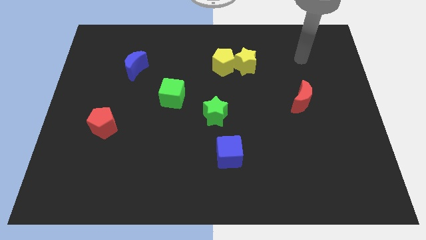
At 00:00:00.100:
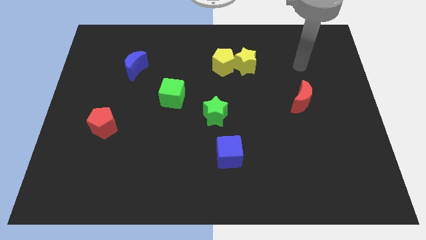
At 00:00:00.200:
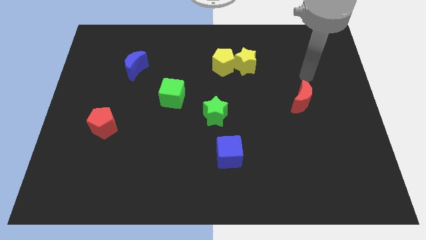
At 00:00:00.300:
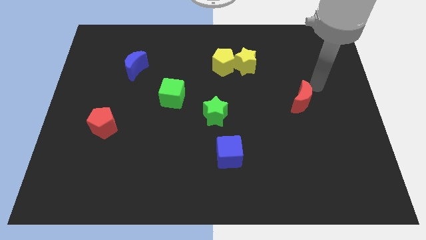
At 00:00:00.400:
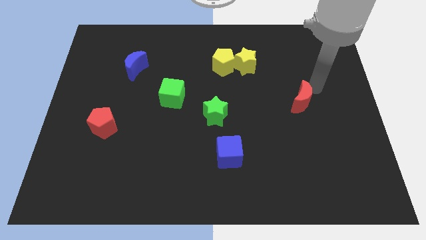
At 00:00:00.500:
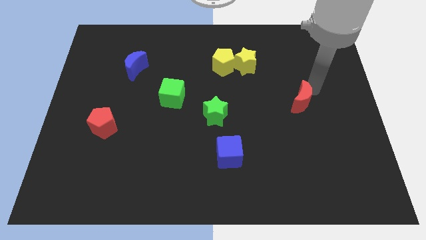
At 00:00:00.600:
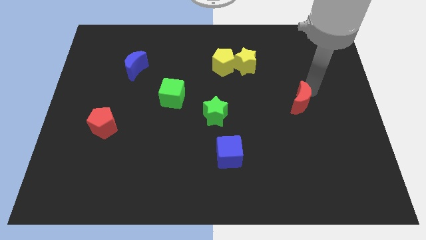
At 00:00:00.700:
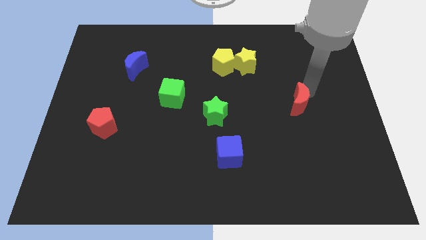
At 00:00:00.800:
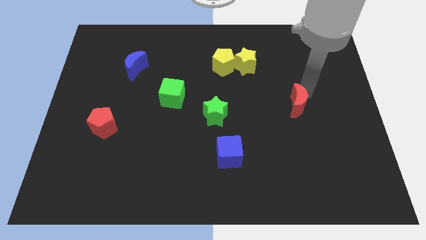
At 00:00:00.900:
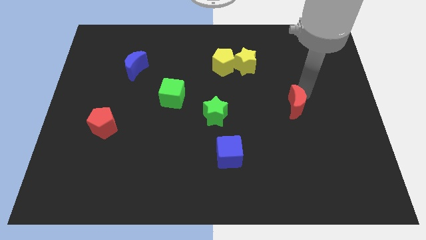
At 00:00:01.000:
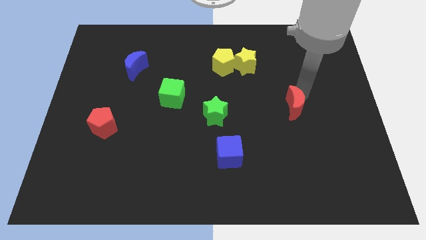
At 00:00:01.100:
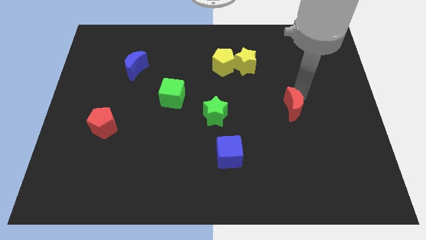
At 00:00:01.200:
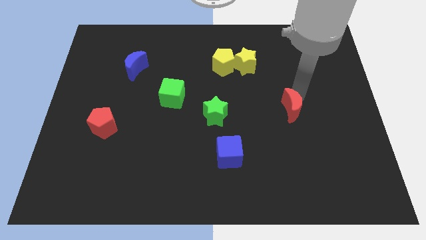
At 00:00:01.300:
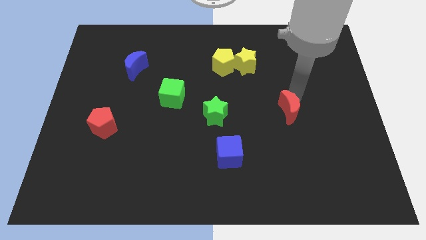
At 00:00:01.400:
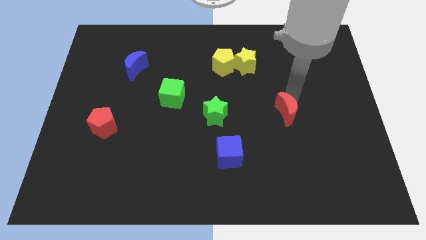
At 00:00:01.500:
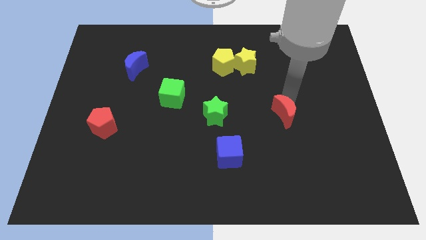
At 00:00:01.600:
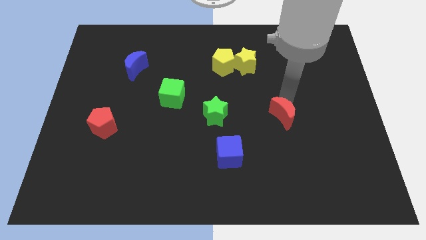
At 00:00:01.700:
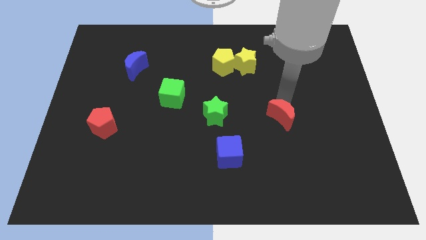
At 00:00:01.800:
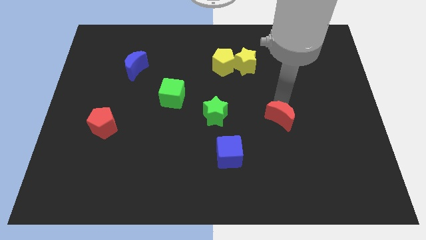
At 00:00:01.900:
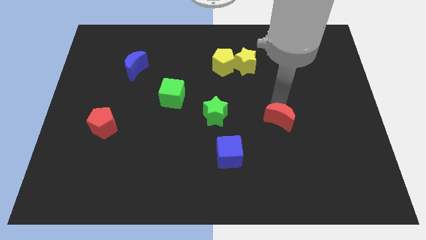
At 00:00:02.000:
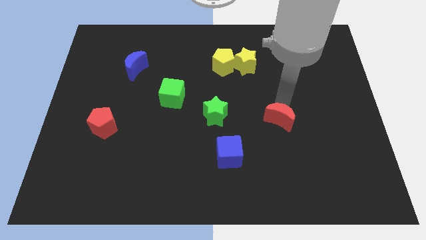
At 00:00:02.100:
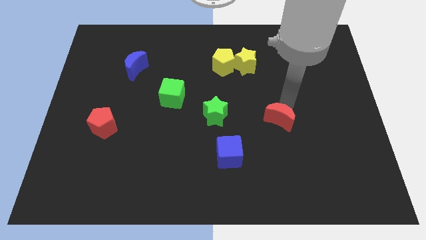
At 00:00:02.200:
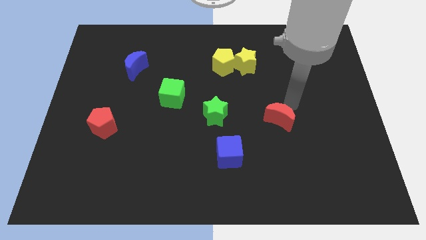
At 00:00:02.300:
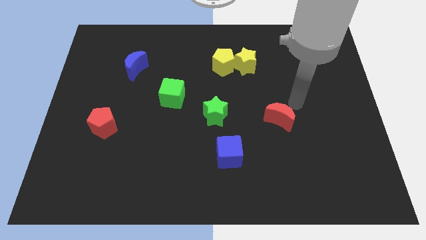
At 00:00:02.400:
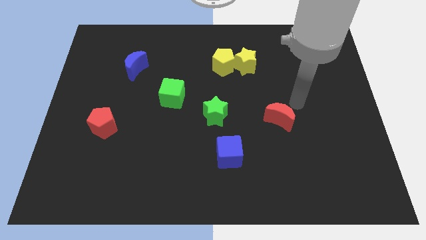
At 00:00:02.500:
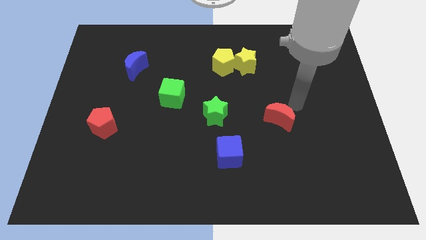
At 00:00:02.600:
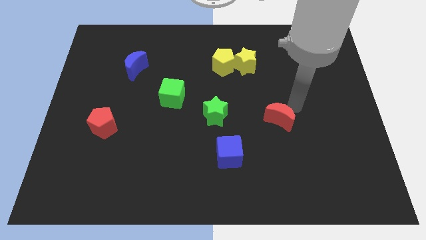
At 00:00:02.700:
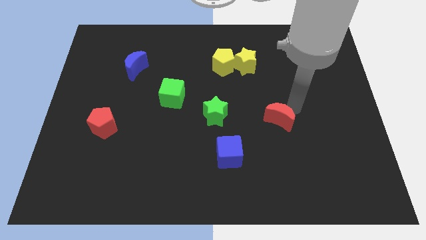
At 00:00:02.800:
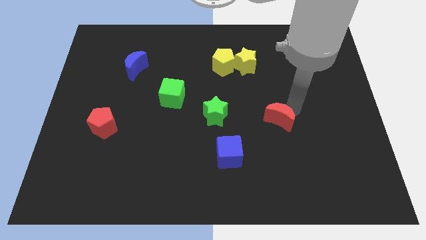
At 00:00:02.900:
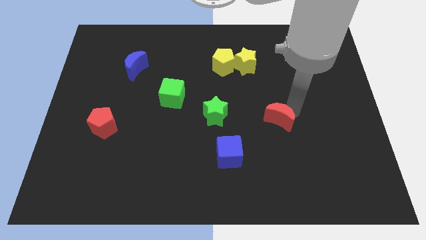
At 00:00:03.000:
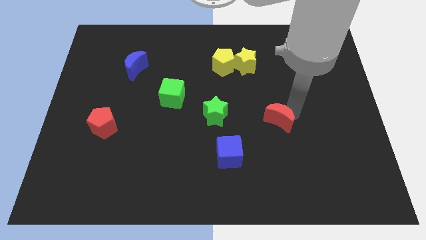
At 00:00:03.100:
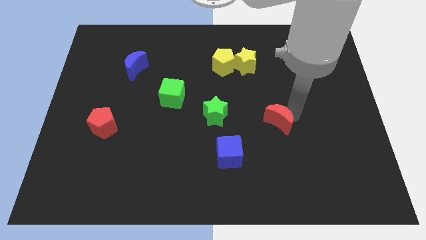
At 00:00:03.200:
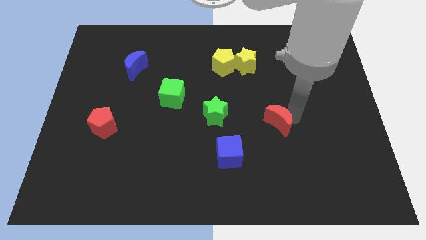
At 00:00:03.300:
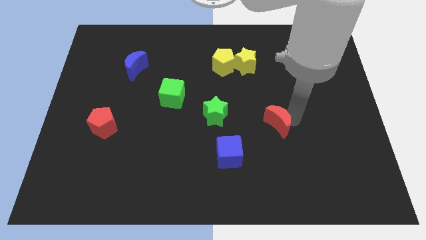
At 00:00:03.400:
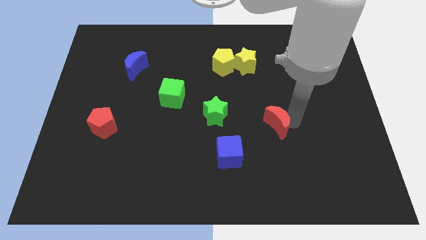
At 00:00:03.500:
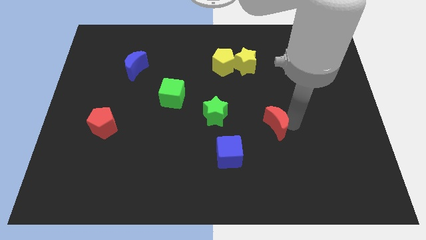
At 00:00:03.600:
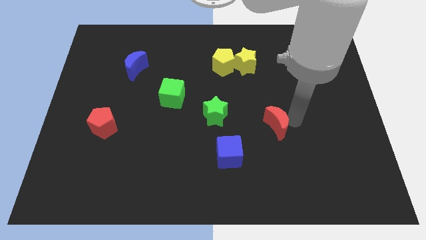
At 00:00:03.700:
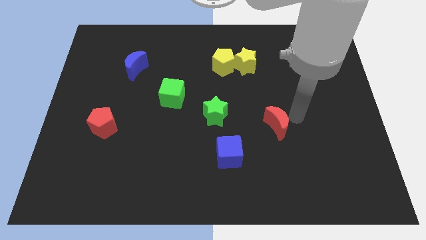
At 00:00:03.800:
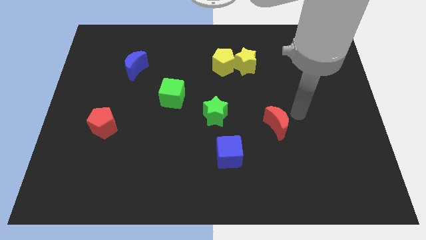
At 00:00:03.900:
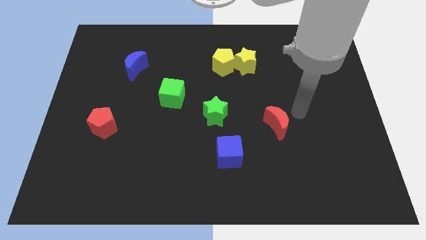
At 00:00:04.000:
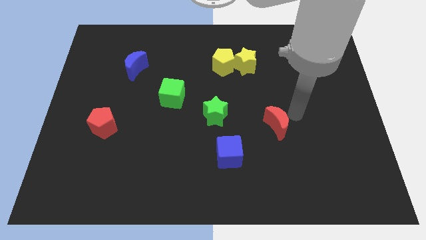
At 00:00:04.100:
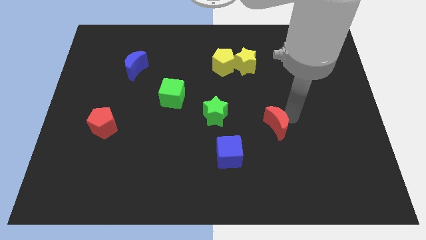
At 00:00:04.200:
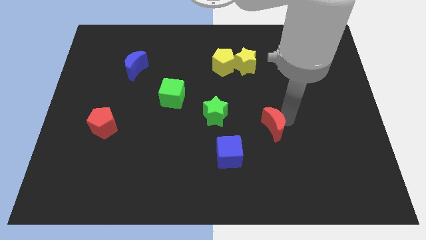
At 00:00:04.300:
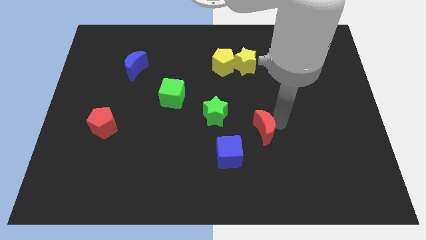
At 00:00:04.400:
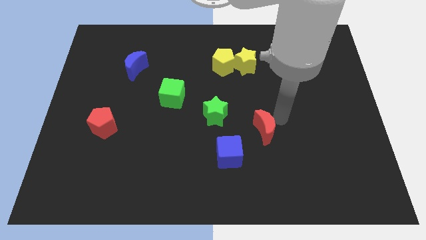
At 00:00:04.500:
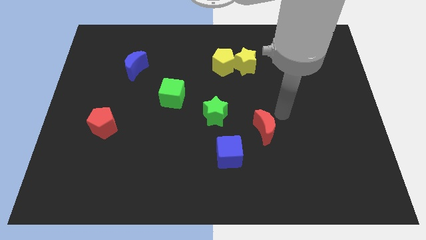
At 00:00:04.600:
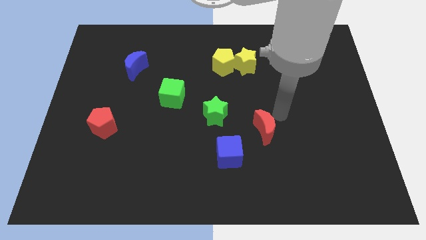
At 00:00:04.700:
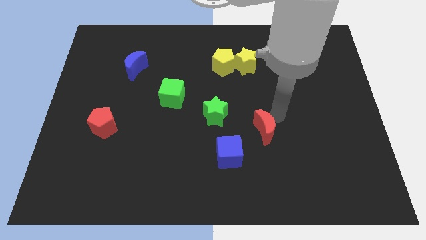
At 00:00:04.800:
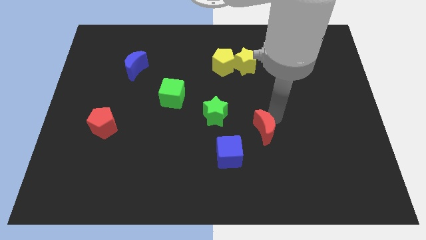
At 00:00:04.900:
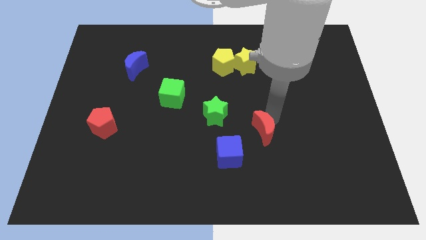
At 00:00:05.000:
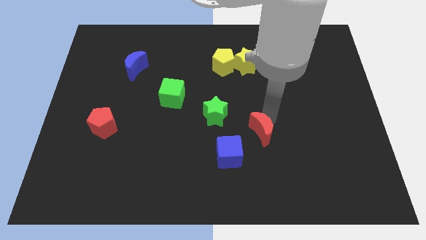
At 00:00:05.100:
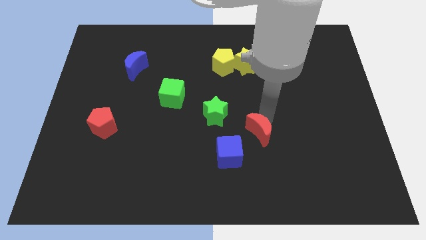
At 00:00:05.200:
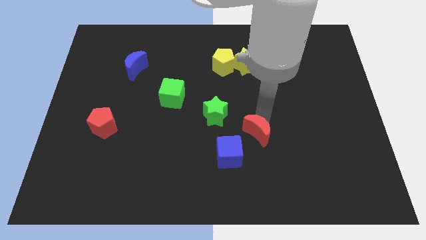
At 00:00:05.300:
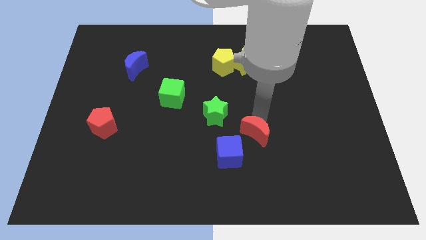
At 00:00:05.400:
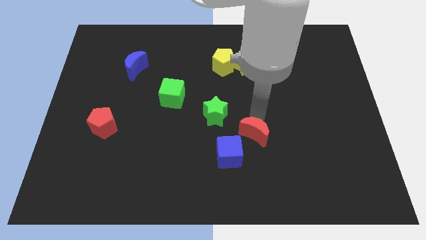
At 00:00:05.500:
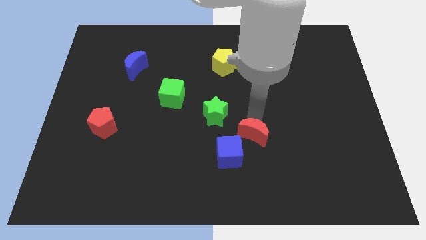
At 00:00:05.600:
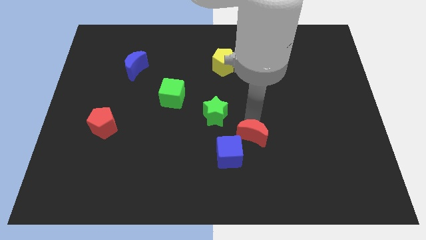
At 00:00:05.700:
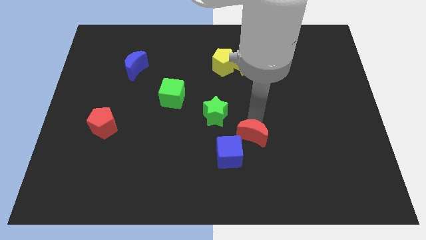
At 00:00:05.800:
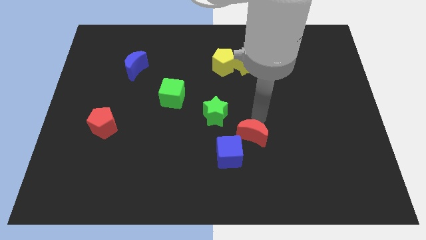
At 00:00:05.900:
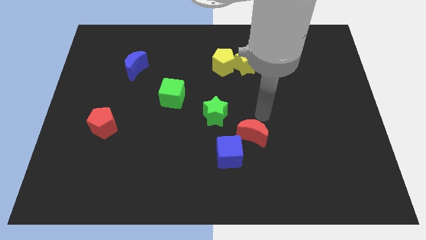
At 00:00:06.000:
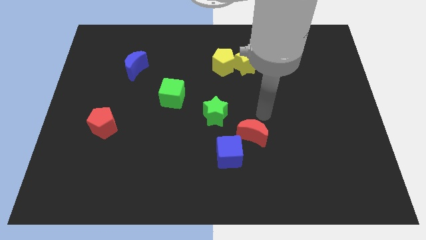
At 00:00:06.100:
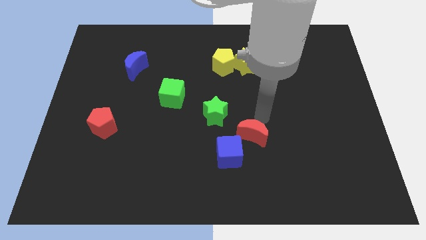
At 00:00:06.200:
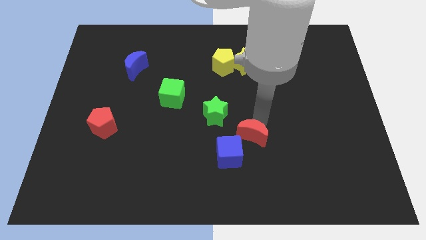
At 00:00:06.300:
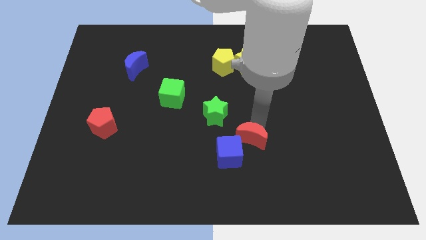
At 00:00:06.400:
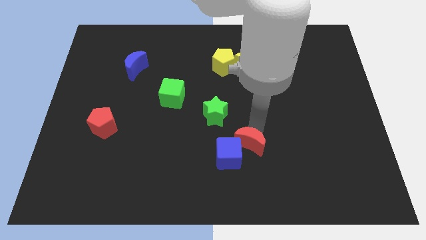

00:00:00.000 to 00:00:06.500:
move the red moon close to the blue cube

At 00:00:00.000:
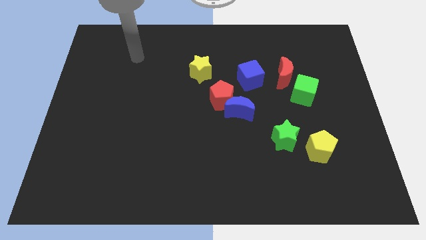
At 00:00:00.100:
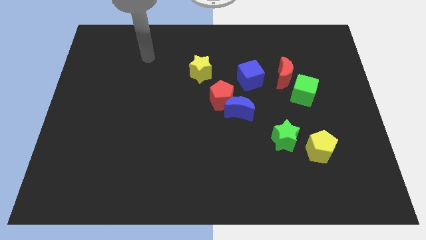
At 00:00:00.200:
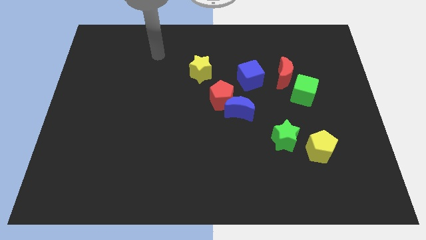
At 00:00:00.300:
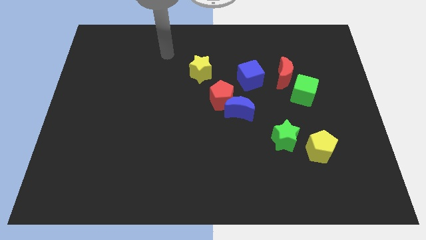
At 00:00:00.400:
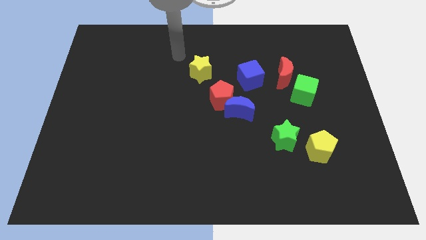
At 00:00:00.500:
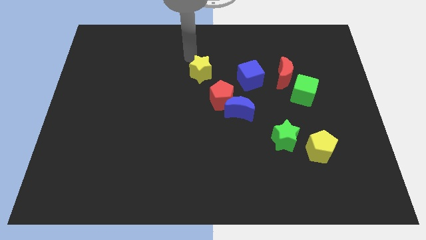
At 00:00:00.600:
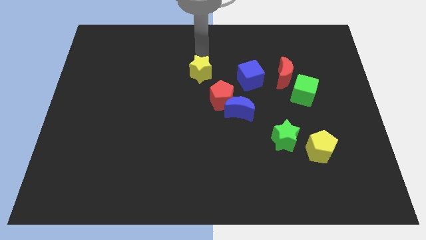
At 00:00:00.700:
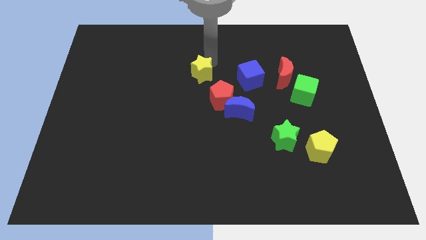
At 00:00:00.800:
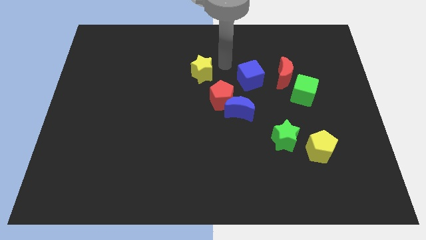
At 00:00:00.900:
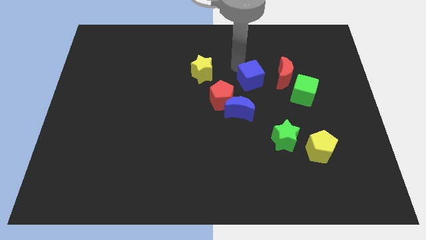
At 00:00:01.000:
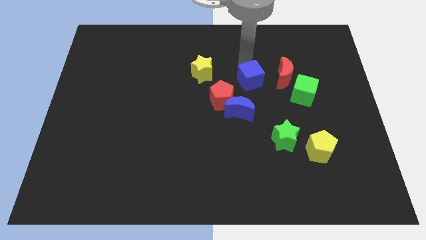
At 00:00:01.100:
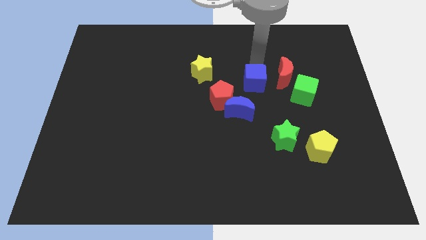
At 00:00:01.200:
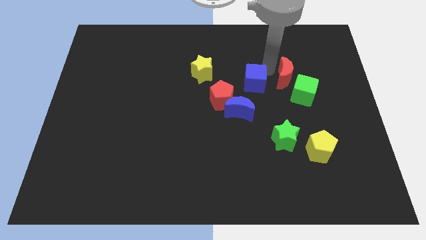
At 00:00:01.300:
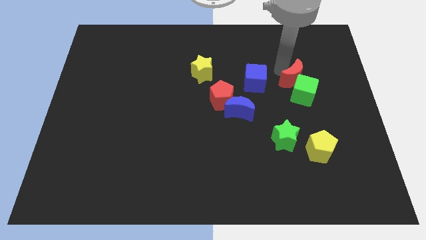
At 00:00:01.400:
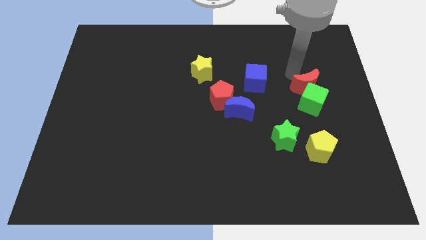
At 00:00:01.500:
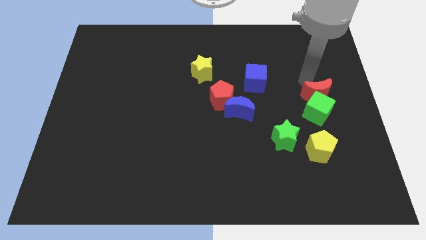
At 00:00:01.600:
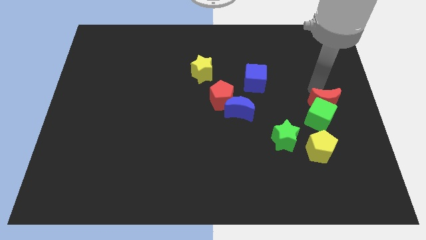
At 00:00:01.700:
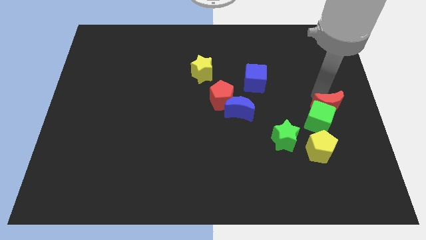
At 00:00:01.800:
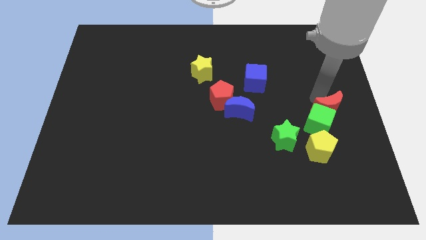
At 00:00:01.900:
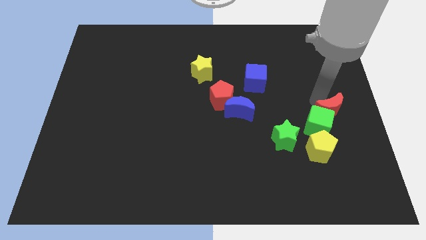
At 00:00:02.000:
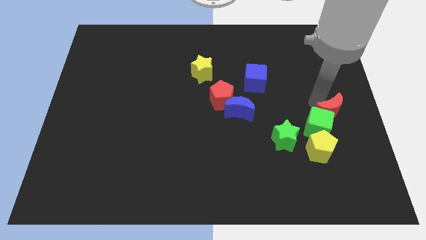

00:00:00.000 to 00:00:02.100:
push the green cube to the yellow pentagon
